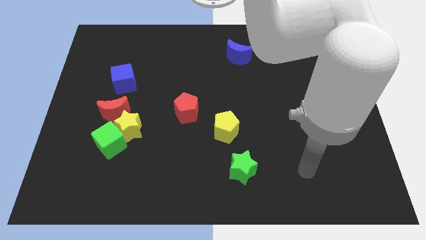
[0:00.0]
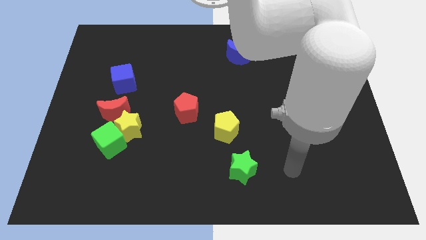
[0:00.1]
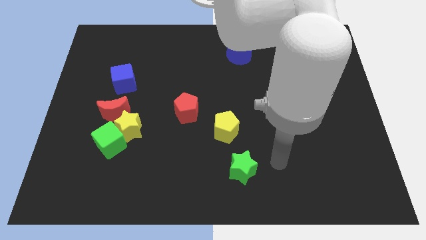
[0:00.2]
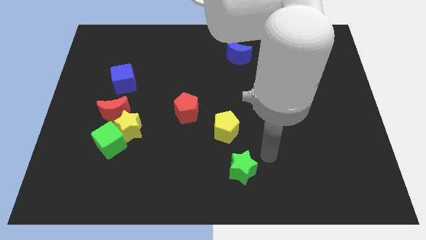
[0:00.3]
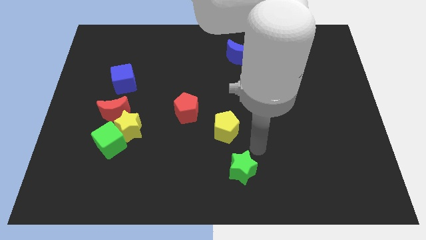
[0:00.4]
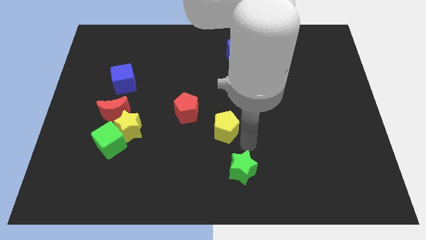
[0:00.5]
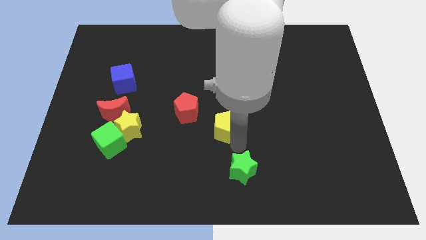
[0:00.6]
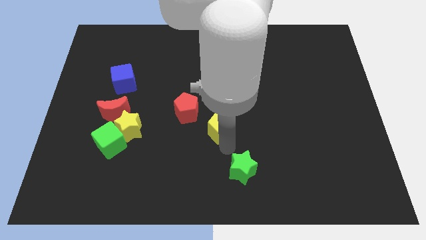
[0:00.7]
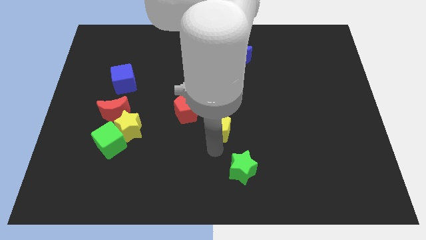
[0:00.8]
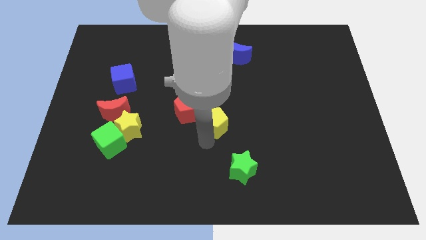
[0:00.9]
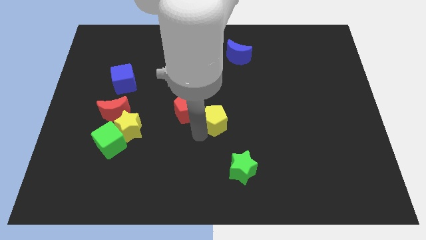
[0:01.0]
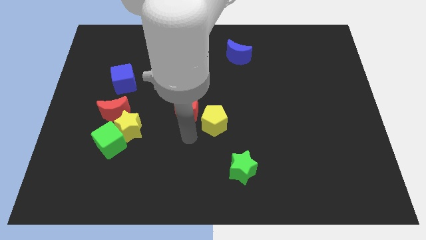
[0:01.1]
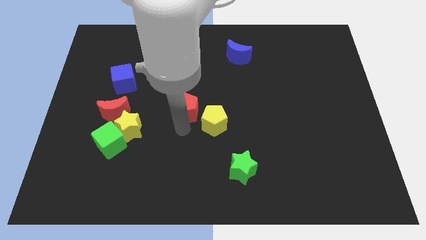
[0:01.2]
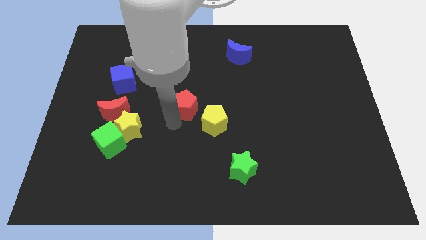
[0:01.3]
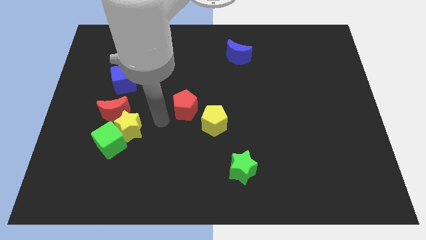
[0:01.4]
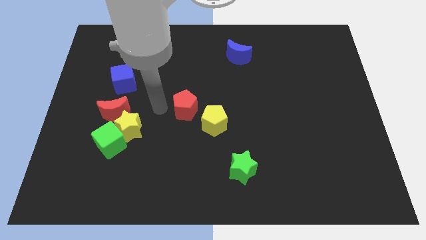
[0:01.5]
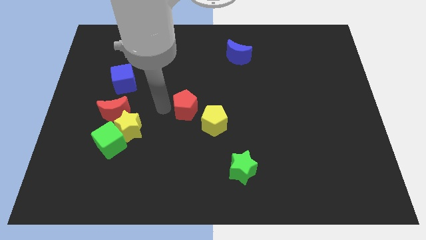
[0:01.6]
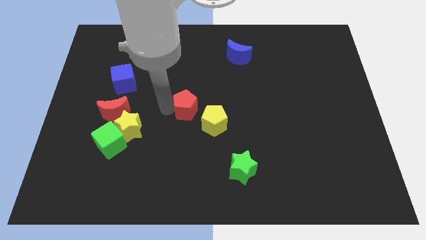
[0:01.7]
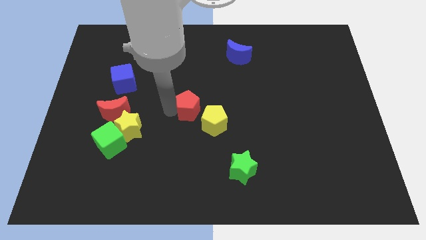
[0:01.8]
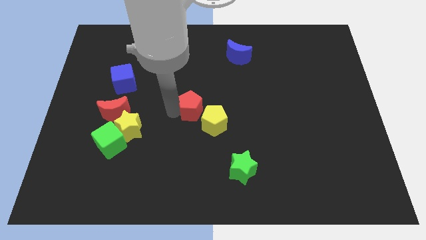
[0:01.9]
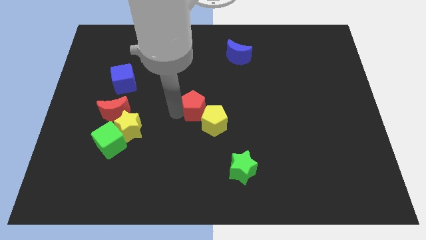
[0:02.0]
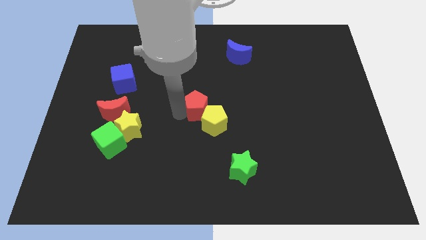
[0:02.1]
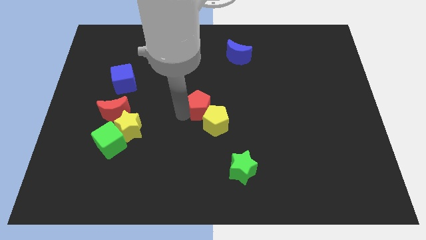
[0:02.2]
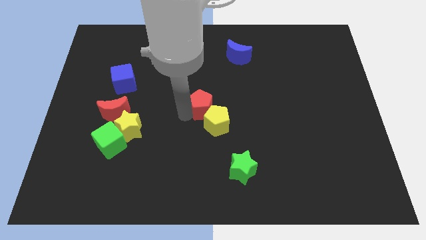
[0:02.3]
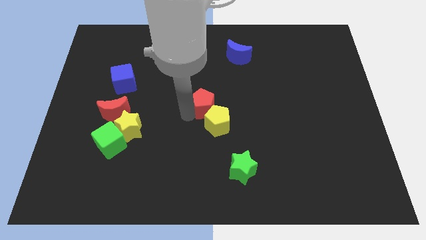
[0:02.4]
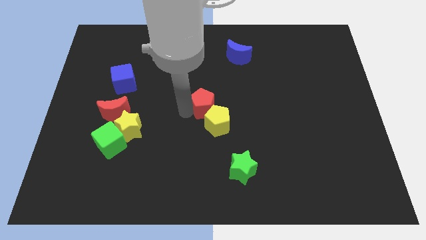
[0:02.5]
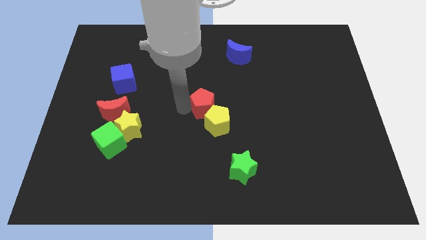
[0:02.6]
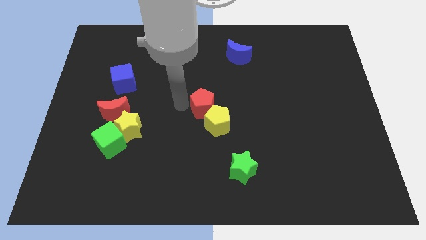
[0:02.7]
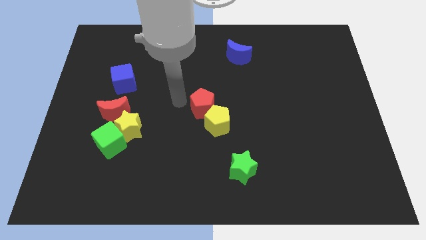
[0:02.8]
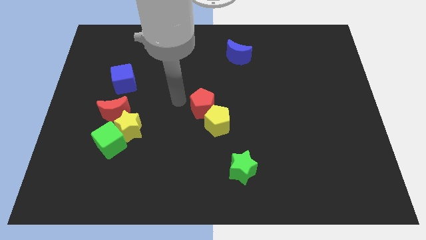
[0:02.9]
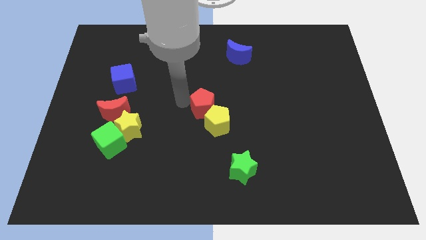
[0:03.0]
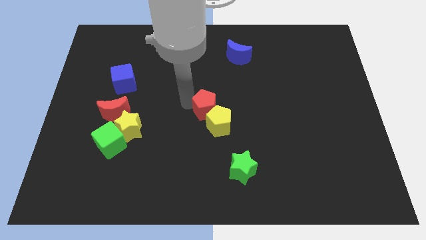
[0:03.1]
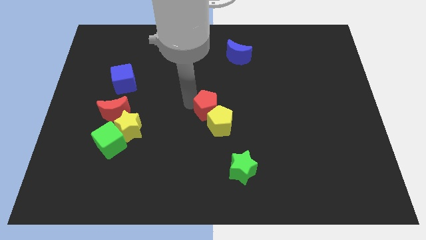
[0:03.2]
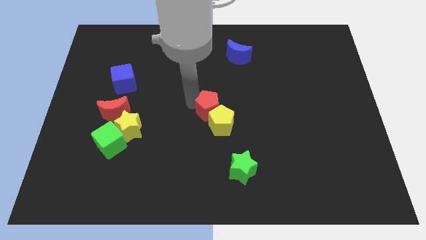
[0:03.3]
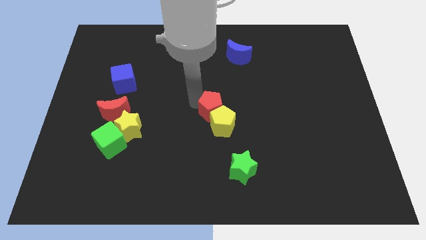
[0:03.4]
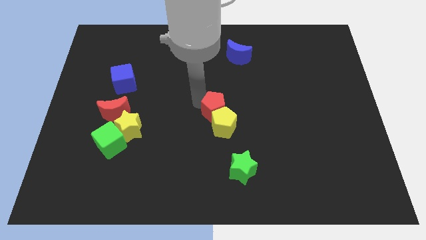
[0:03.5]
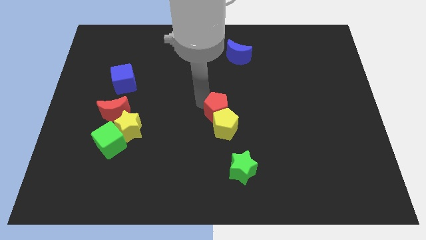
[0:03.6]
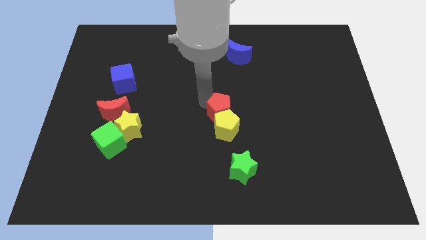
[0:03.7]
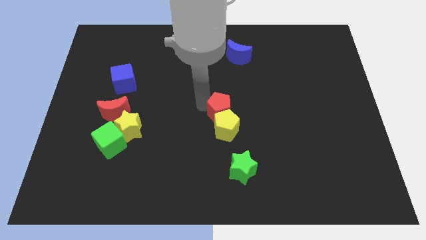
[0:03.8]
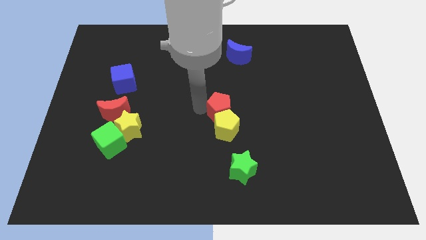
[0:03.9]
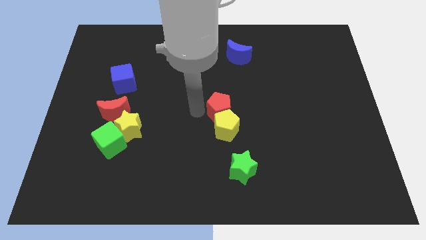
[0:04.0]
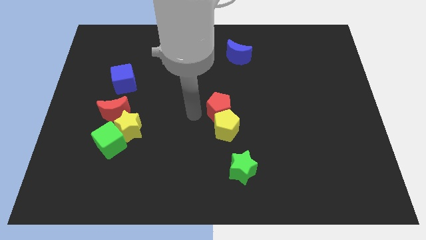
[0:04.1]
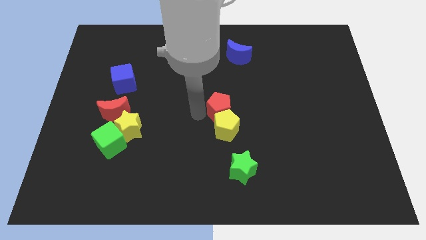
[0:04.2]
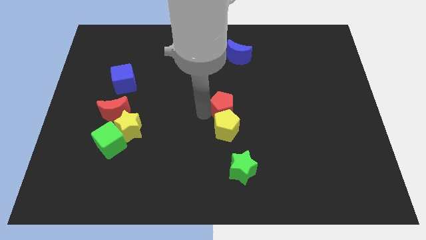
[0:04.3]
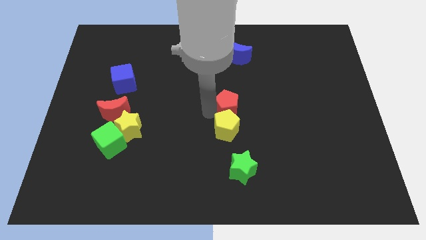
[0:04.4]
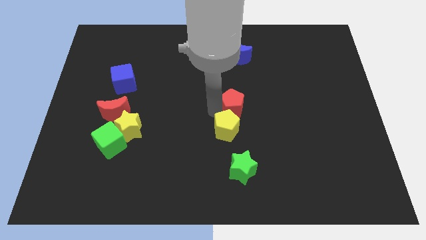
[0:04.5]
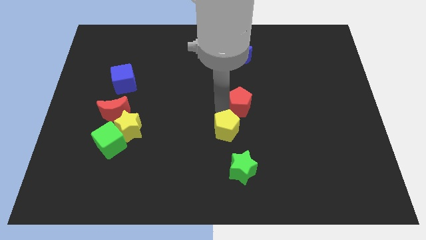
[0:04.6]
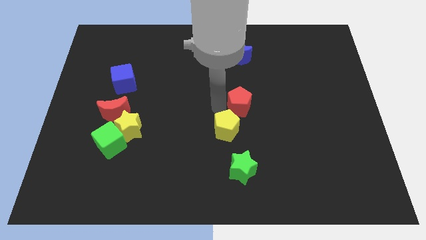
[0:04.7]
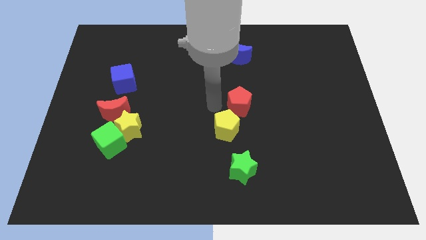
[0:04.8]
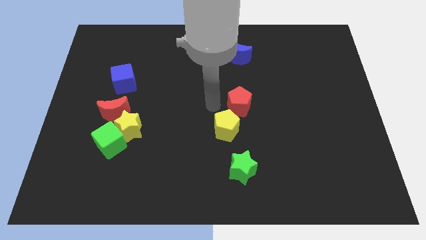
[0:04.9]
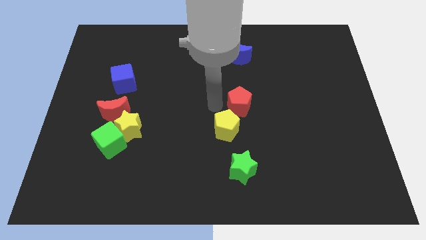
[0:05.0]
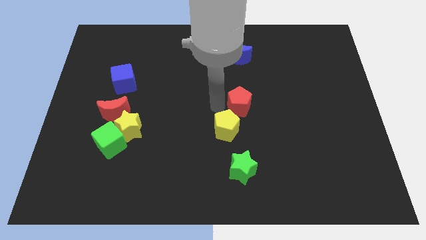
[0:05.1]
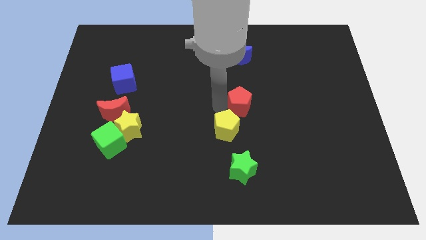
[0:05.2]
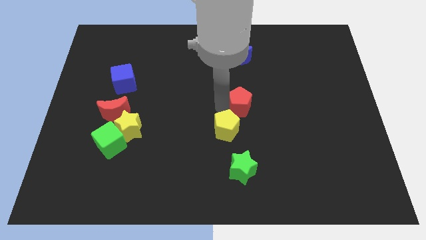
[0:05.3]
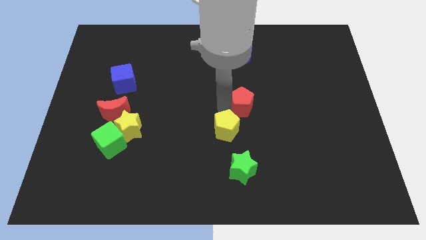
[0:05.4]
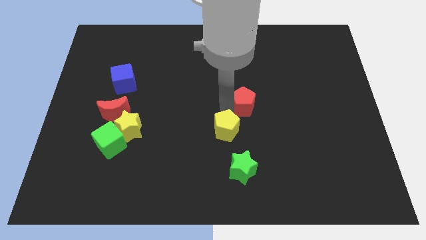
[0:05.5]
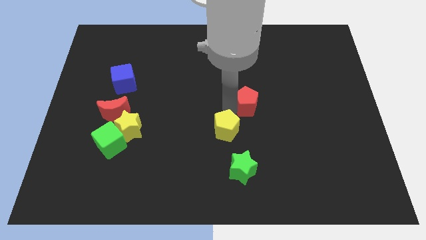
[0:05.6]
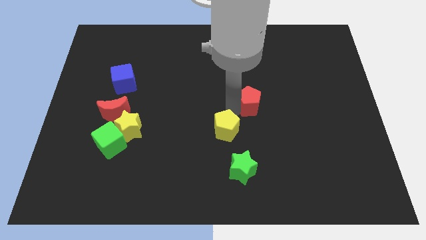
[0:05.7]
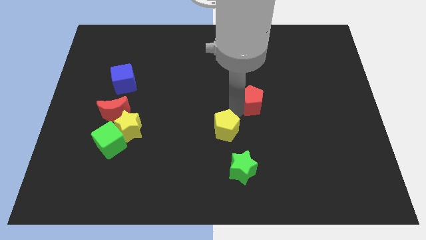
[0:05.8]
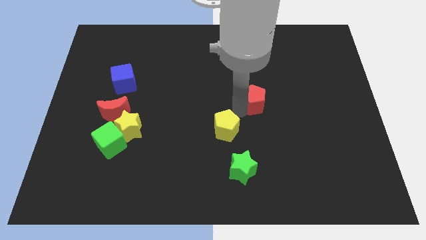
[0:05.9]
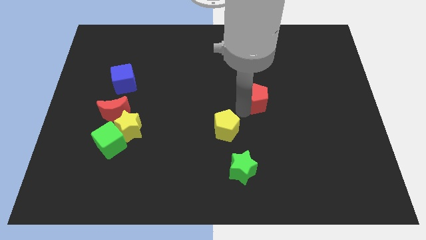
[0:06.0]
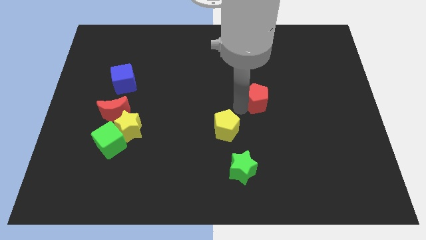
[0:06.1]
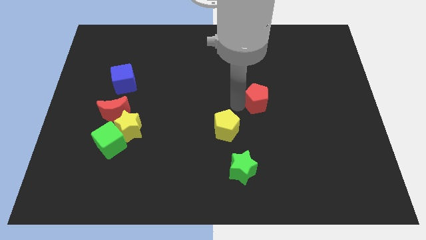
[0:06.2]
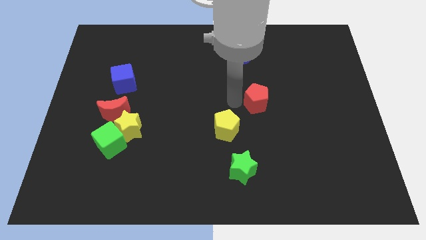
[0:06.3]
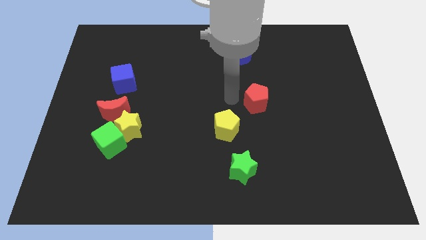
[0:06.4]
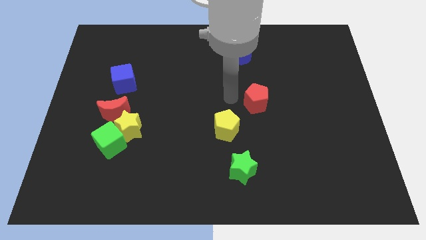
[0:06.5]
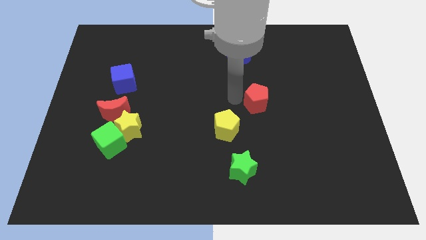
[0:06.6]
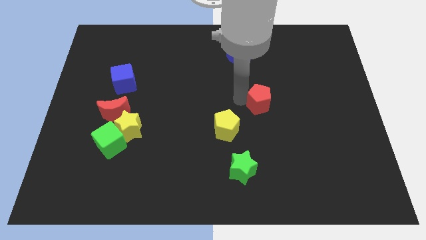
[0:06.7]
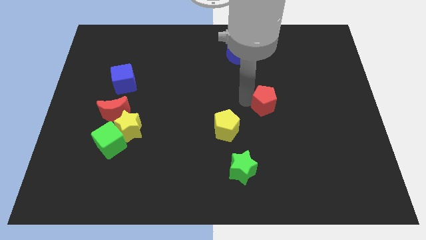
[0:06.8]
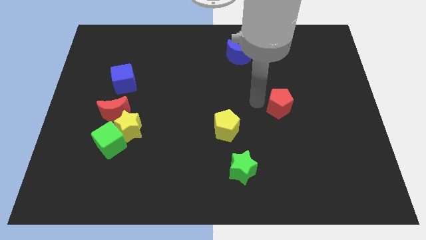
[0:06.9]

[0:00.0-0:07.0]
slide the red pentagon right

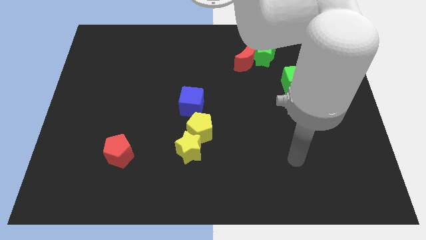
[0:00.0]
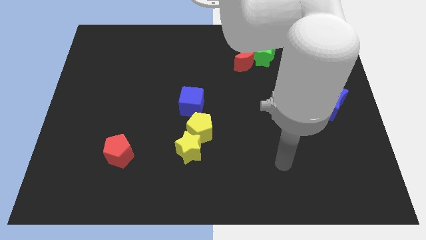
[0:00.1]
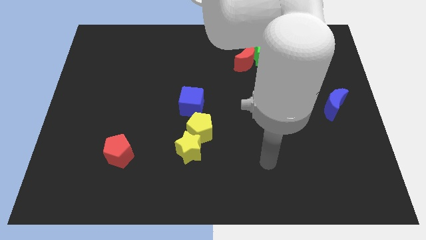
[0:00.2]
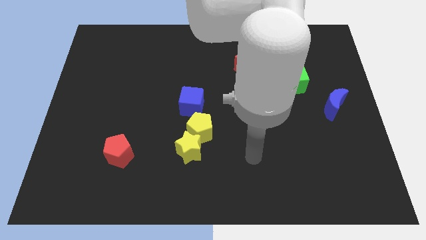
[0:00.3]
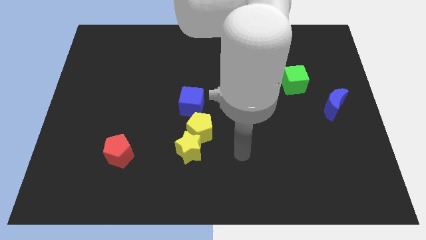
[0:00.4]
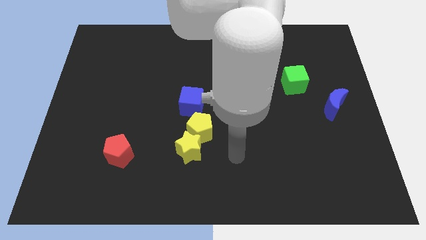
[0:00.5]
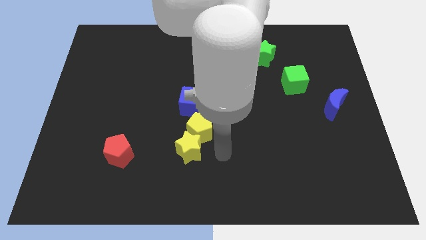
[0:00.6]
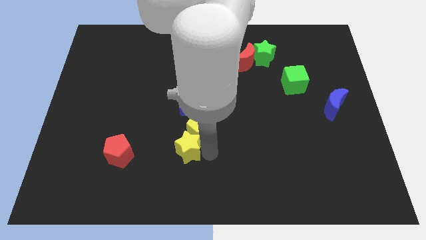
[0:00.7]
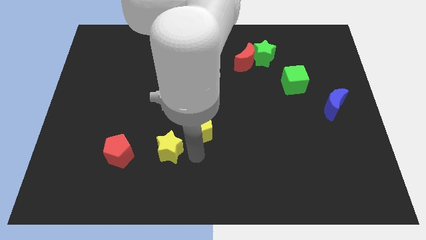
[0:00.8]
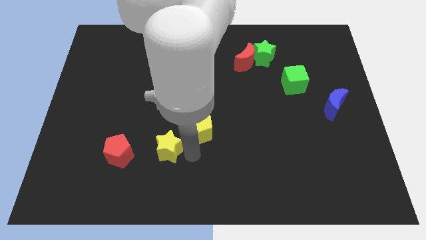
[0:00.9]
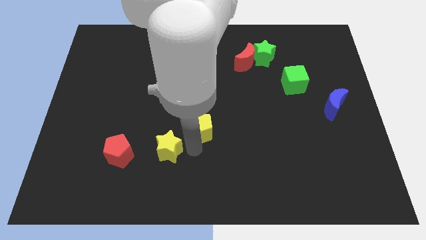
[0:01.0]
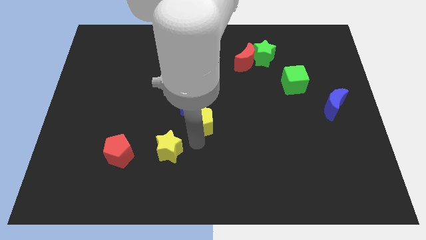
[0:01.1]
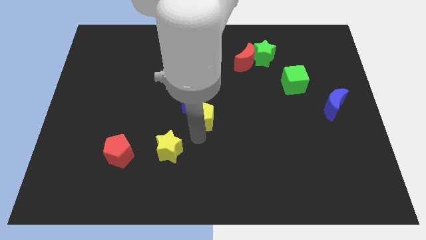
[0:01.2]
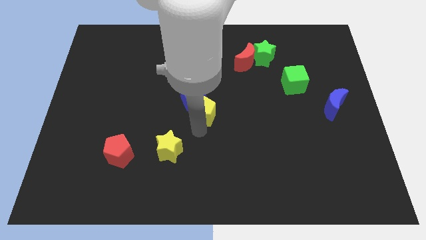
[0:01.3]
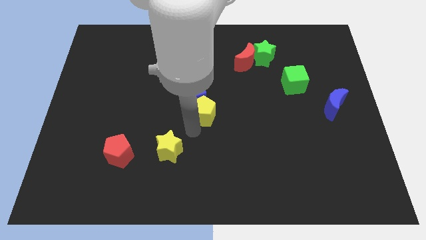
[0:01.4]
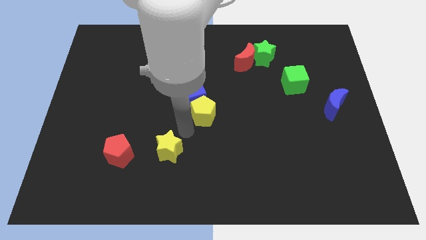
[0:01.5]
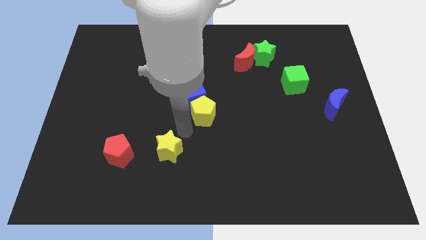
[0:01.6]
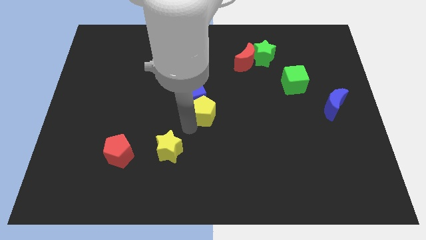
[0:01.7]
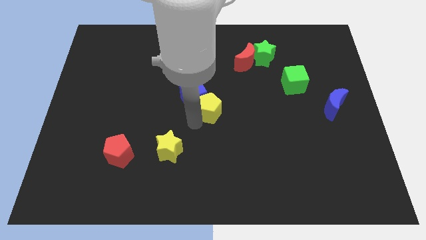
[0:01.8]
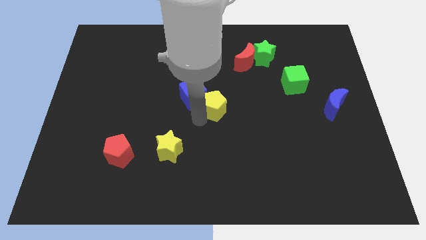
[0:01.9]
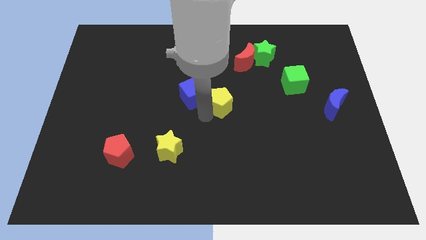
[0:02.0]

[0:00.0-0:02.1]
slightly slide the yellow pentagon diagonally up and right
